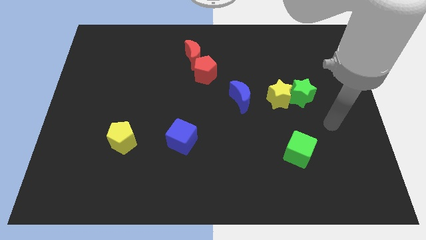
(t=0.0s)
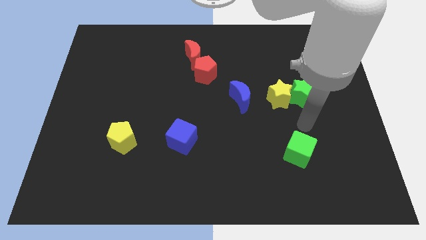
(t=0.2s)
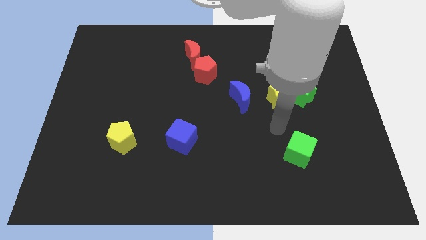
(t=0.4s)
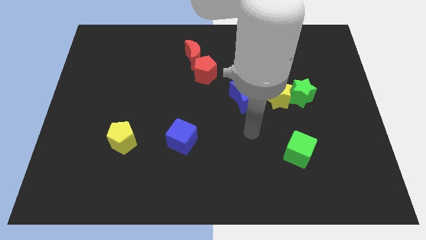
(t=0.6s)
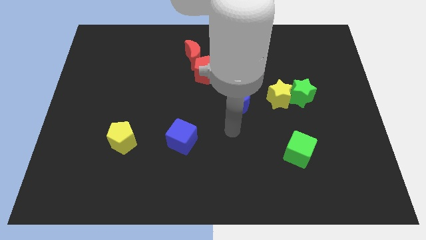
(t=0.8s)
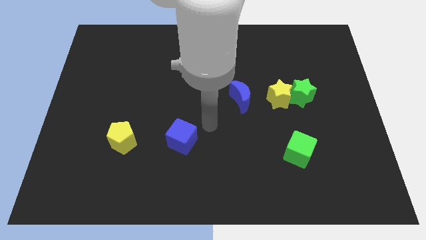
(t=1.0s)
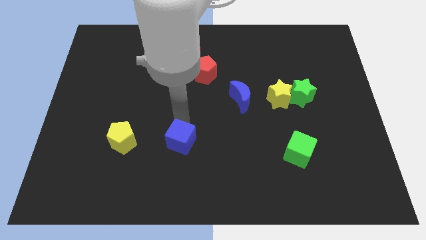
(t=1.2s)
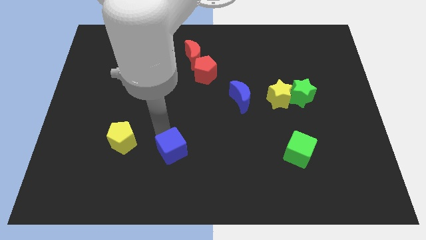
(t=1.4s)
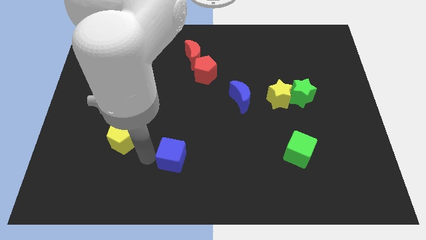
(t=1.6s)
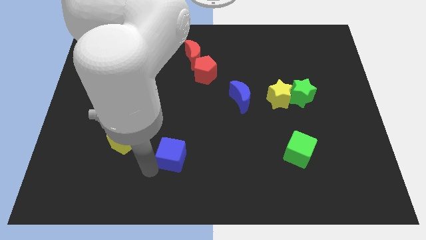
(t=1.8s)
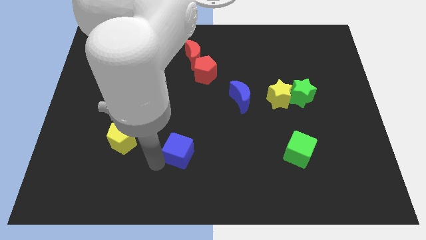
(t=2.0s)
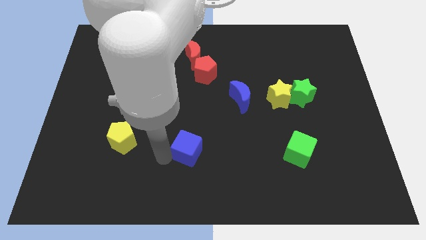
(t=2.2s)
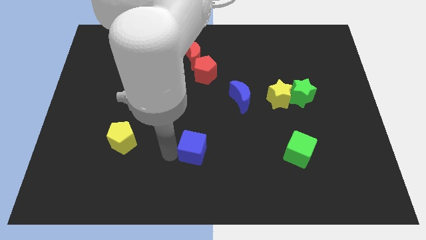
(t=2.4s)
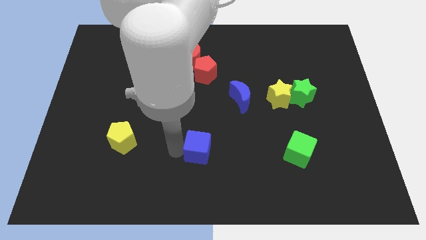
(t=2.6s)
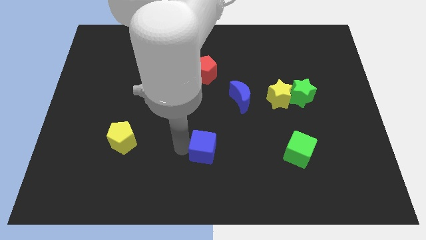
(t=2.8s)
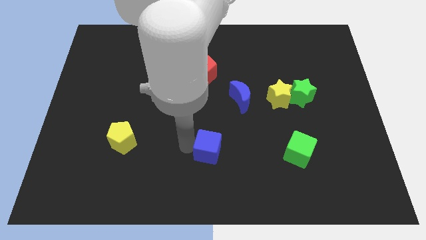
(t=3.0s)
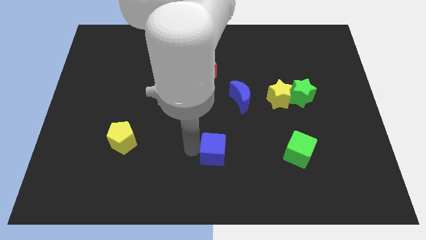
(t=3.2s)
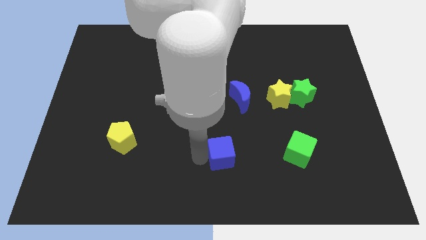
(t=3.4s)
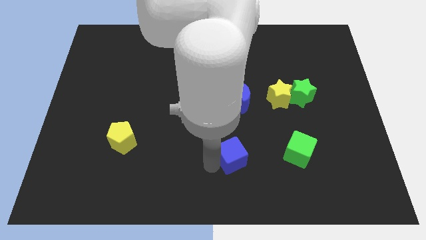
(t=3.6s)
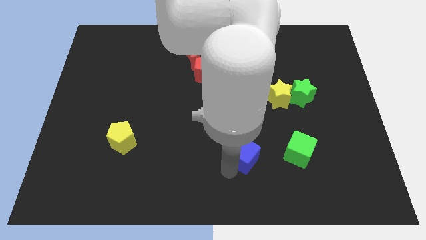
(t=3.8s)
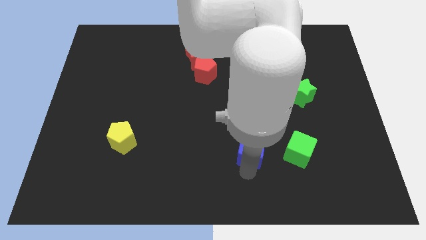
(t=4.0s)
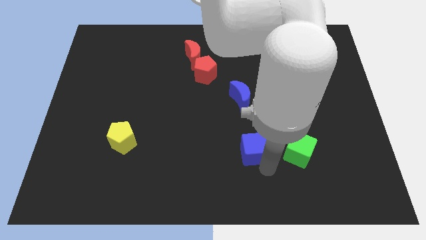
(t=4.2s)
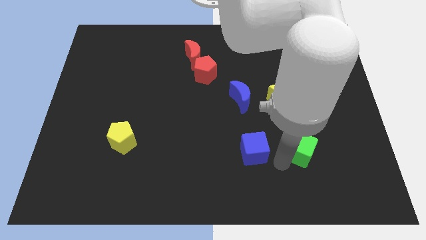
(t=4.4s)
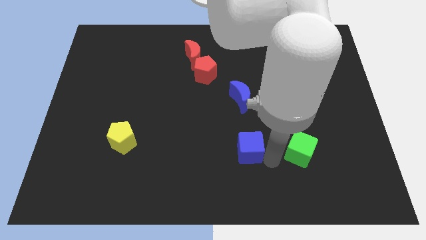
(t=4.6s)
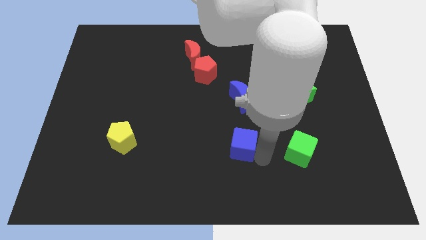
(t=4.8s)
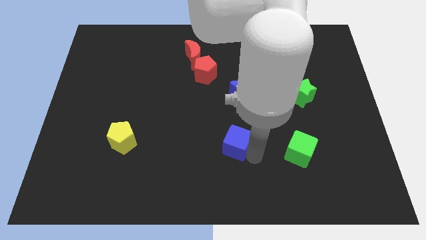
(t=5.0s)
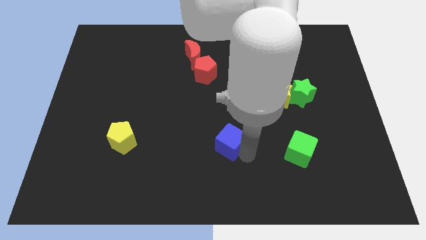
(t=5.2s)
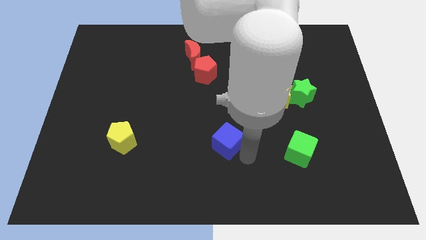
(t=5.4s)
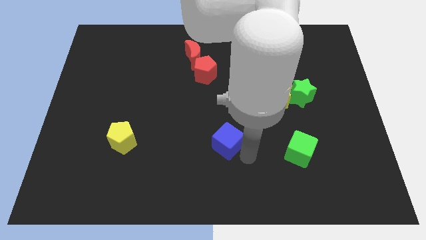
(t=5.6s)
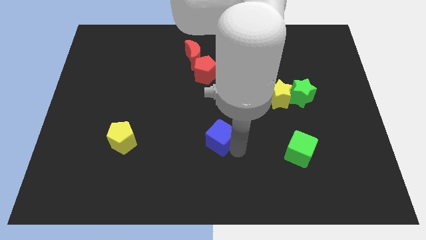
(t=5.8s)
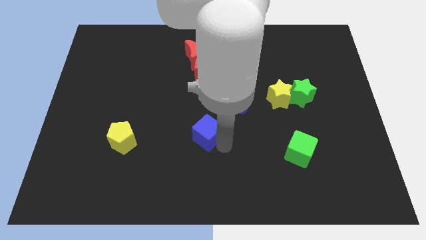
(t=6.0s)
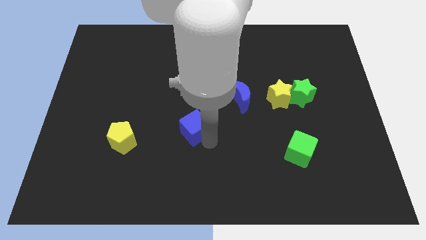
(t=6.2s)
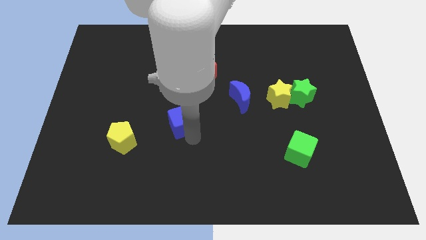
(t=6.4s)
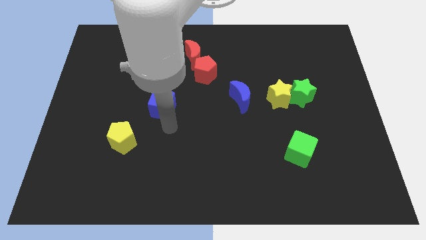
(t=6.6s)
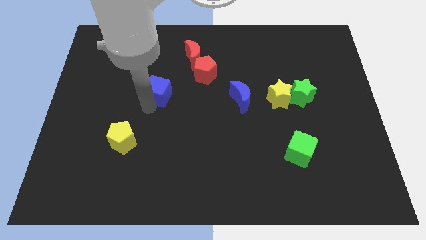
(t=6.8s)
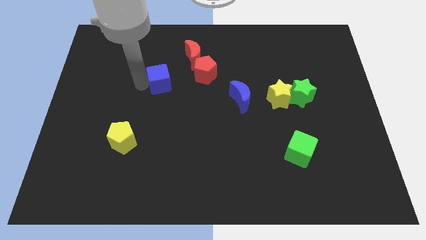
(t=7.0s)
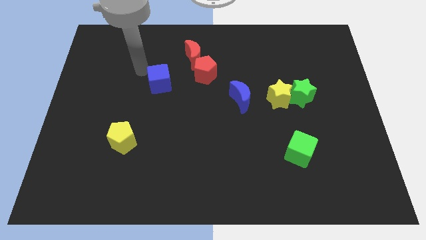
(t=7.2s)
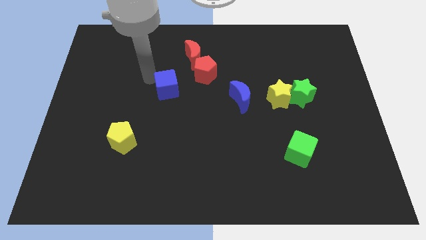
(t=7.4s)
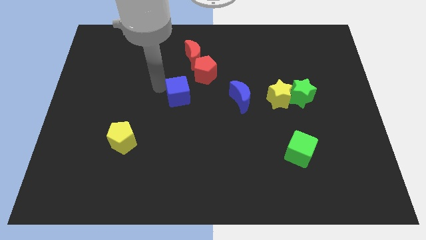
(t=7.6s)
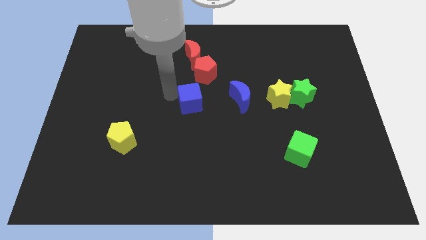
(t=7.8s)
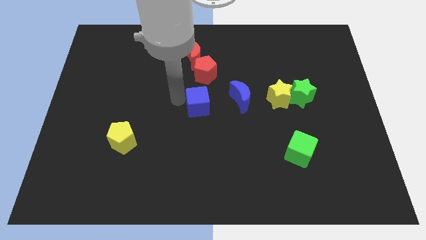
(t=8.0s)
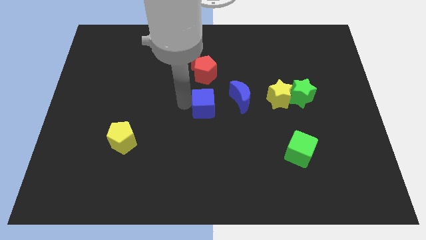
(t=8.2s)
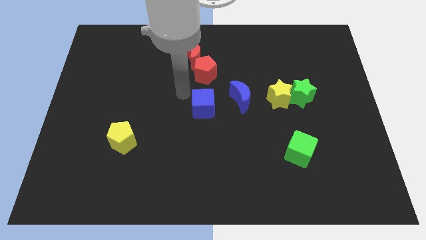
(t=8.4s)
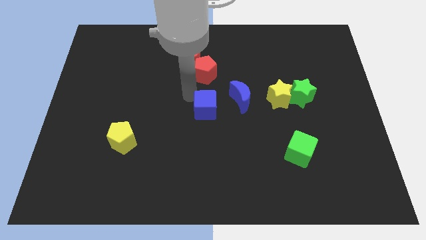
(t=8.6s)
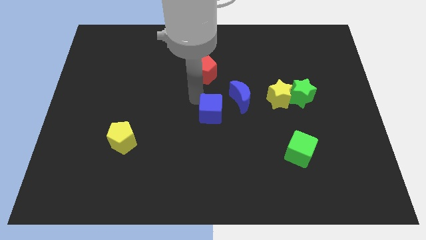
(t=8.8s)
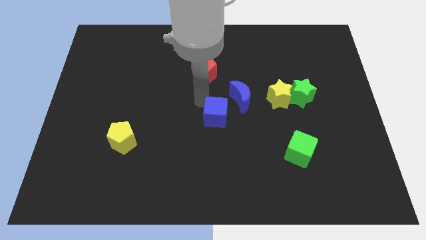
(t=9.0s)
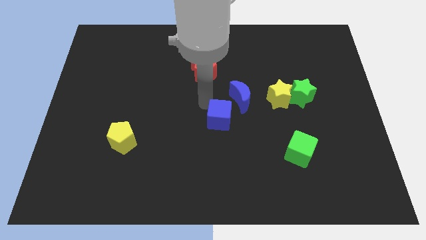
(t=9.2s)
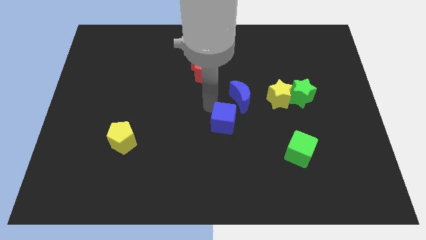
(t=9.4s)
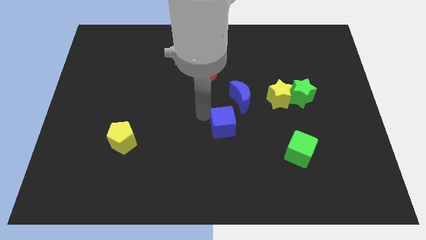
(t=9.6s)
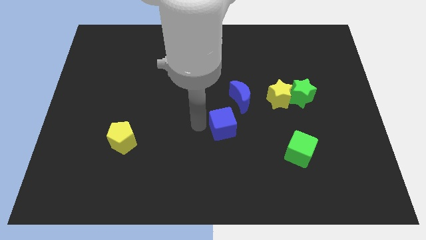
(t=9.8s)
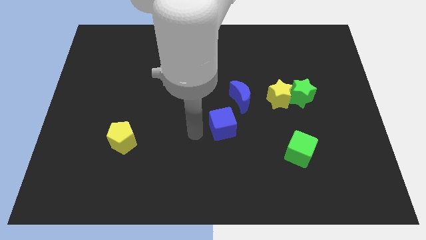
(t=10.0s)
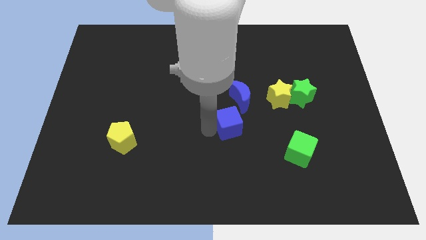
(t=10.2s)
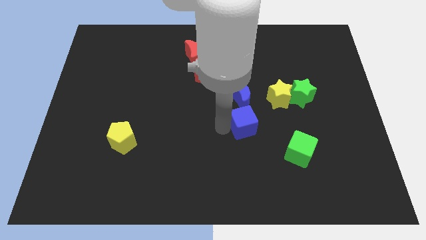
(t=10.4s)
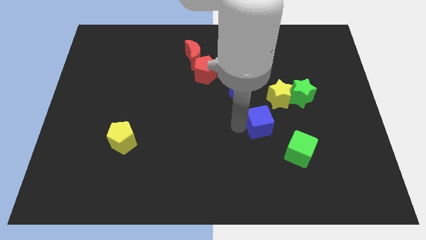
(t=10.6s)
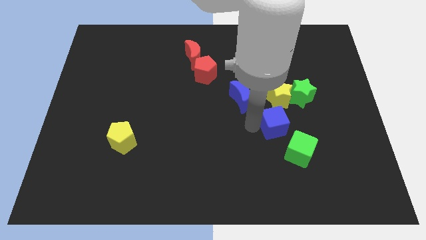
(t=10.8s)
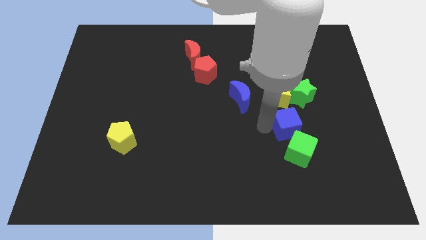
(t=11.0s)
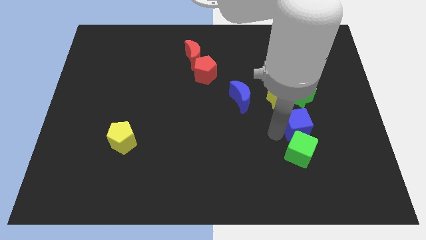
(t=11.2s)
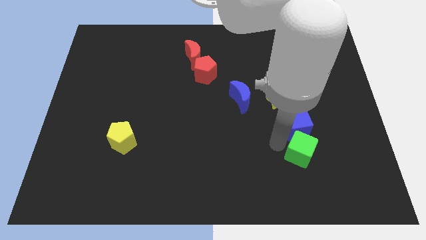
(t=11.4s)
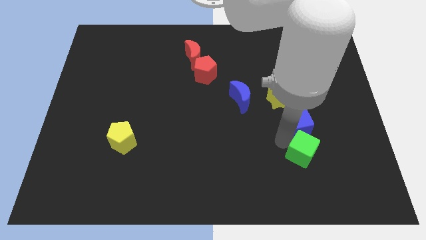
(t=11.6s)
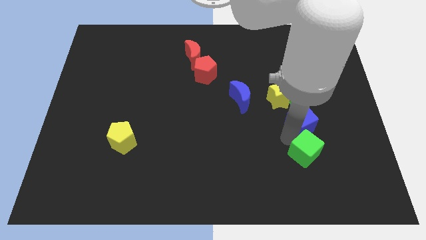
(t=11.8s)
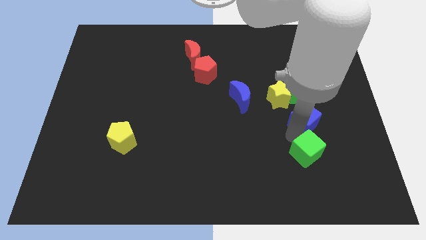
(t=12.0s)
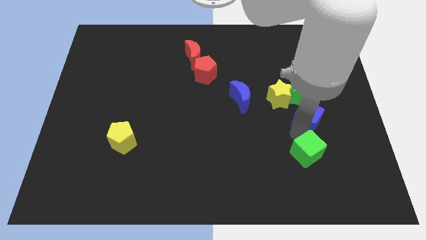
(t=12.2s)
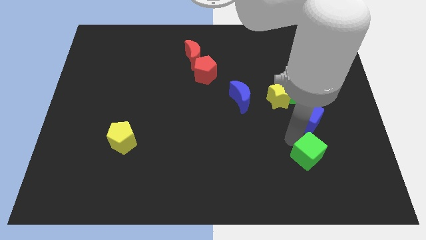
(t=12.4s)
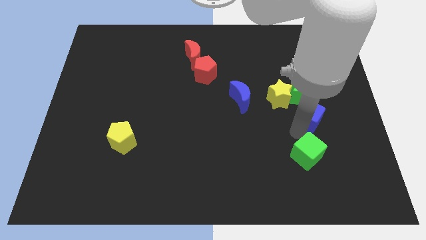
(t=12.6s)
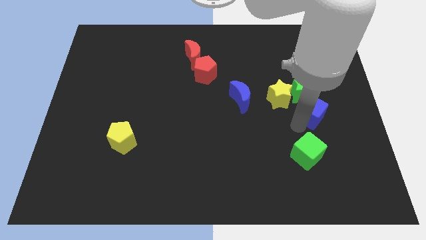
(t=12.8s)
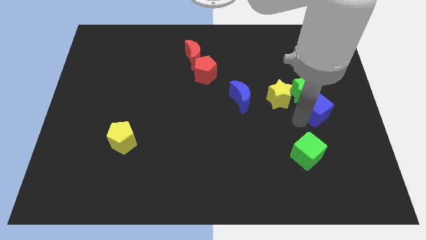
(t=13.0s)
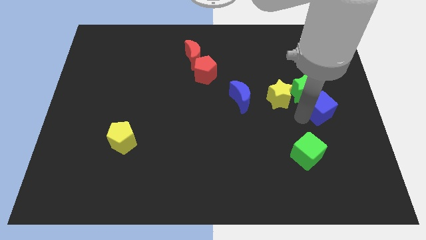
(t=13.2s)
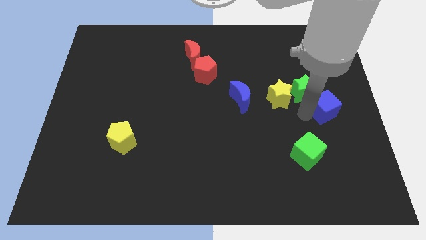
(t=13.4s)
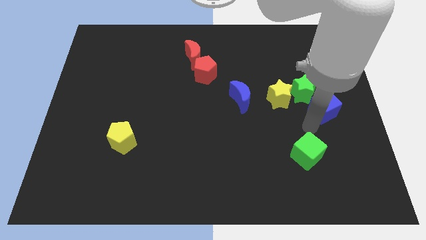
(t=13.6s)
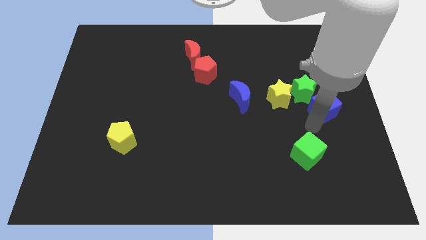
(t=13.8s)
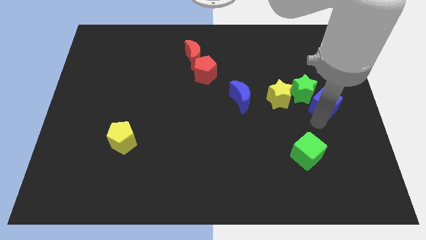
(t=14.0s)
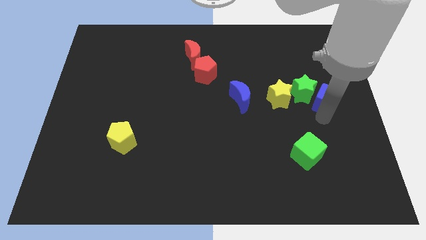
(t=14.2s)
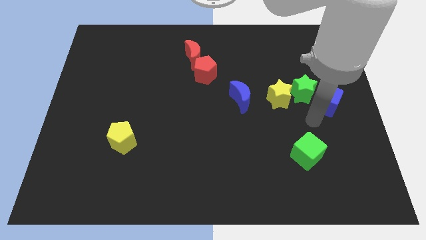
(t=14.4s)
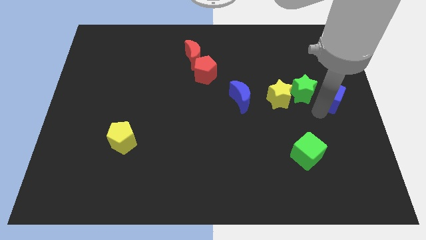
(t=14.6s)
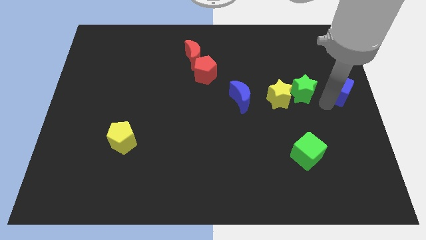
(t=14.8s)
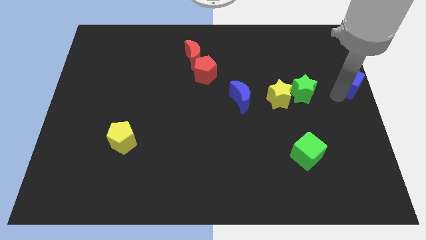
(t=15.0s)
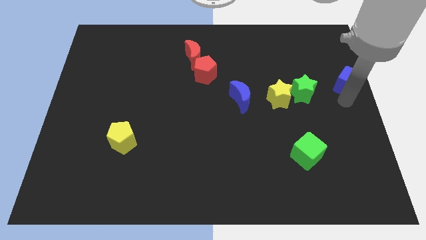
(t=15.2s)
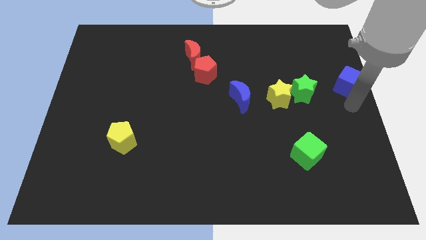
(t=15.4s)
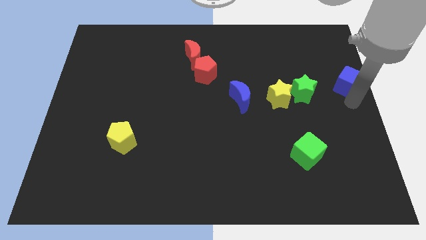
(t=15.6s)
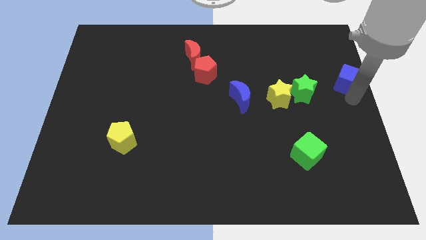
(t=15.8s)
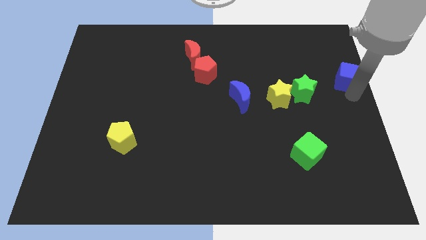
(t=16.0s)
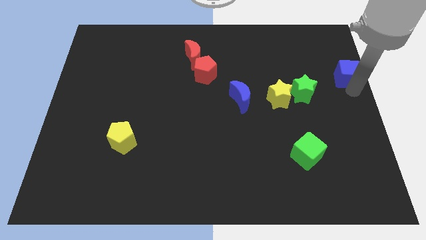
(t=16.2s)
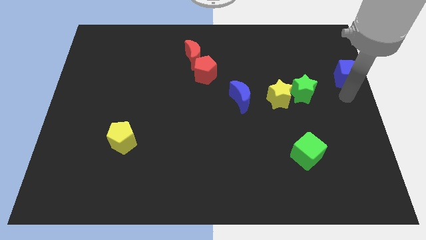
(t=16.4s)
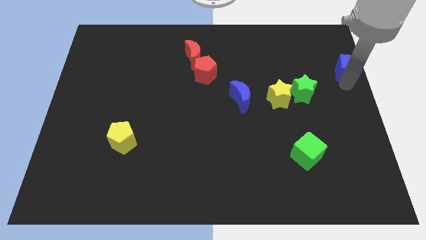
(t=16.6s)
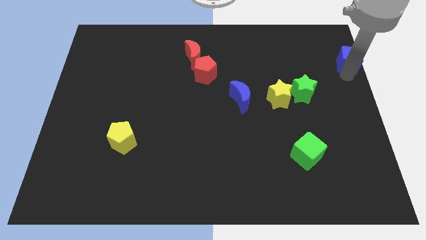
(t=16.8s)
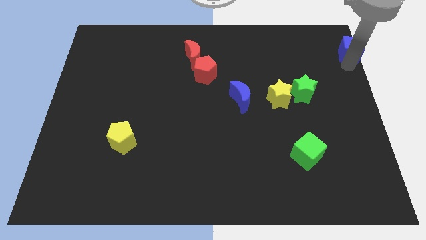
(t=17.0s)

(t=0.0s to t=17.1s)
move the blue cube to the upper right corner
